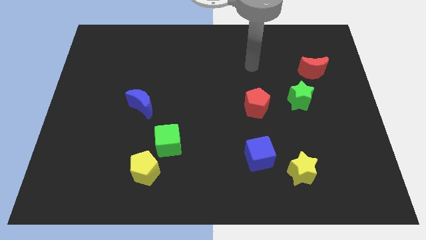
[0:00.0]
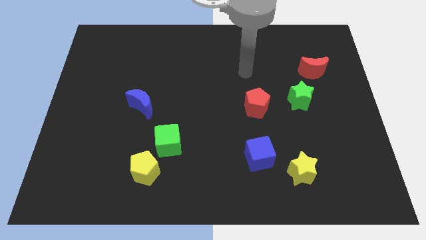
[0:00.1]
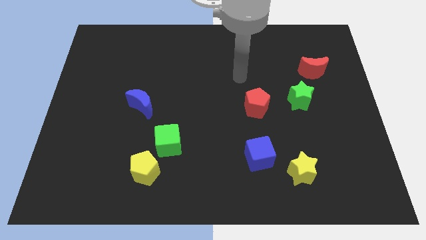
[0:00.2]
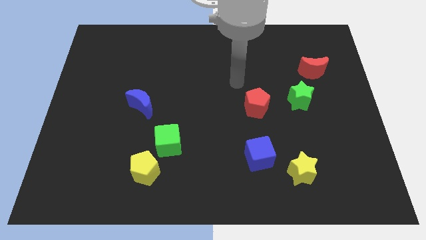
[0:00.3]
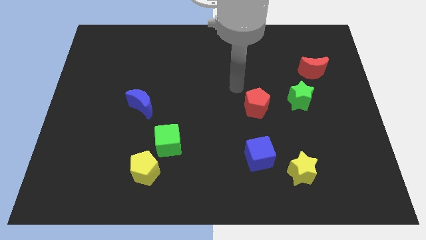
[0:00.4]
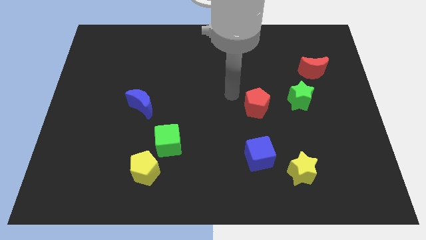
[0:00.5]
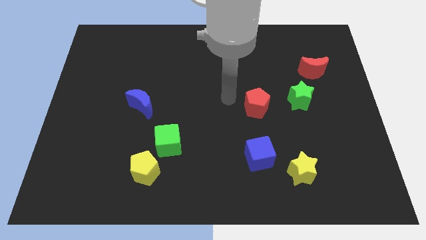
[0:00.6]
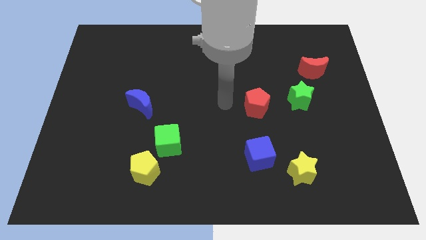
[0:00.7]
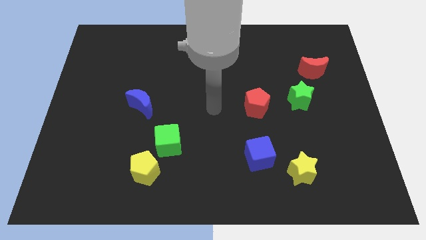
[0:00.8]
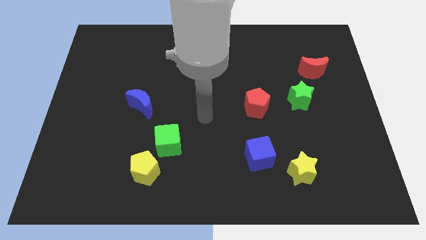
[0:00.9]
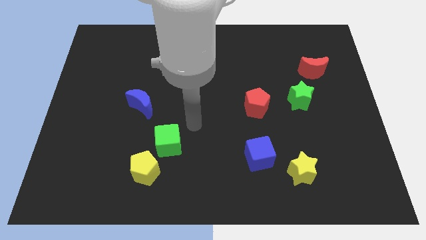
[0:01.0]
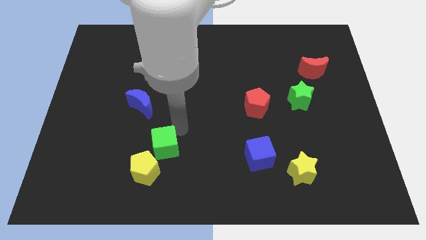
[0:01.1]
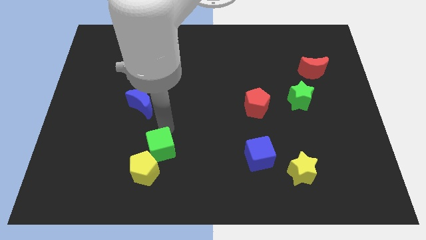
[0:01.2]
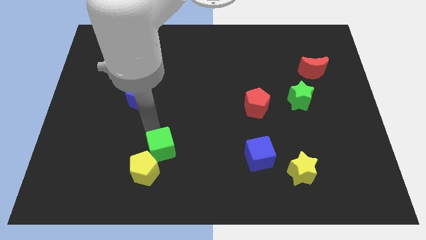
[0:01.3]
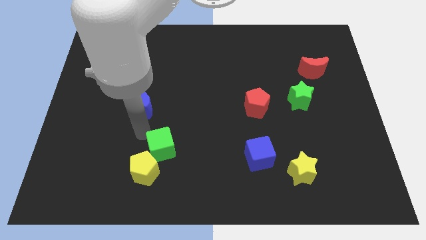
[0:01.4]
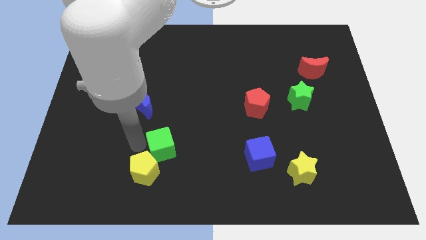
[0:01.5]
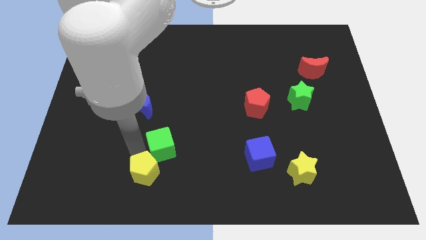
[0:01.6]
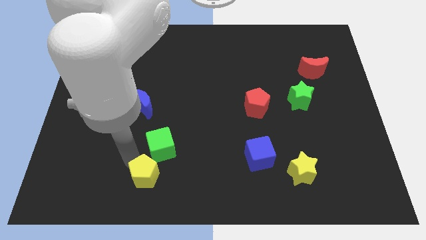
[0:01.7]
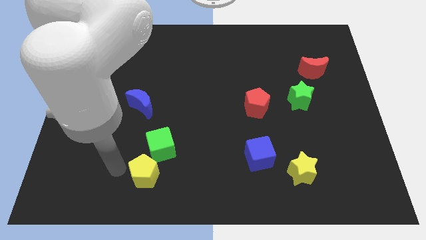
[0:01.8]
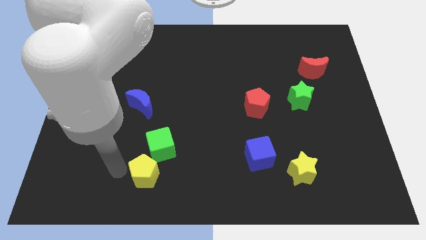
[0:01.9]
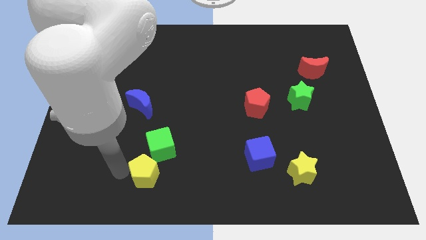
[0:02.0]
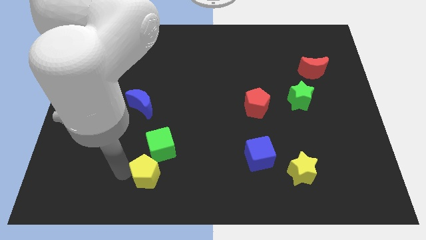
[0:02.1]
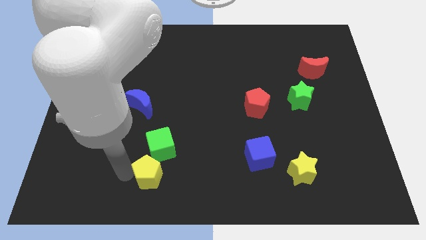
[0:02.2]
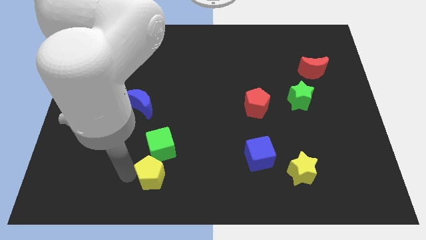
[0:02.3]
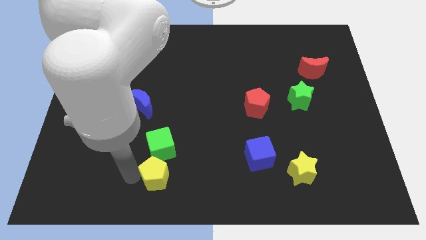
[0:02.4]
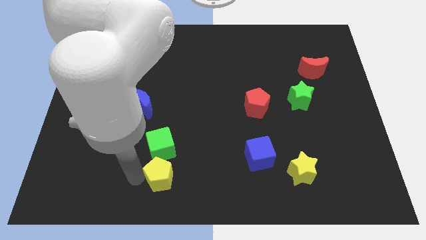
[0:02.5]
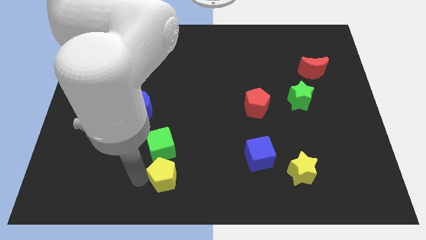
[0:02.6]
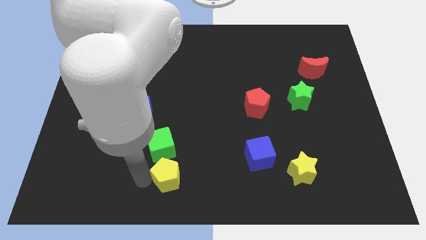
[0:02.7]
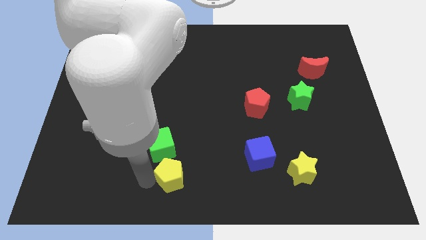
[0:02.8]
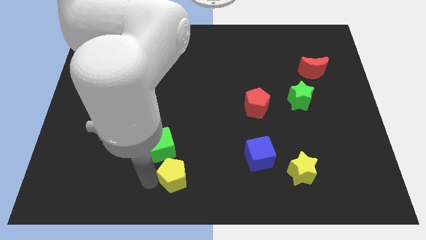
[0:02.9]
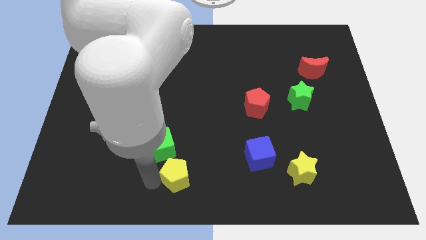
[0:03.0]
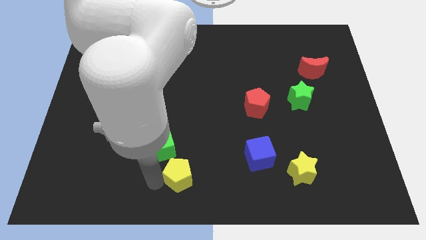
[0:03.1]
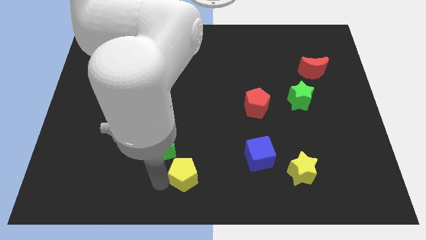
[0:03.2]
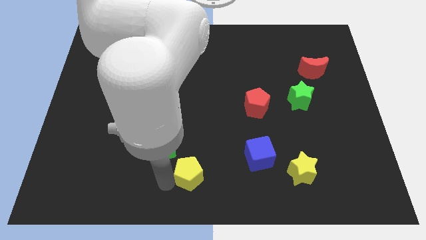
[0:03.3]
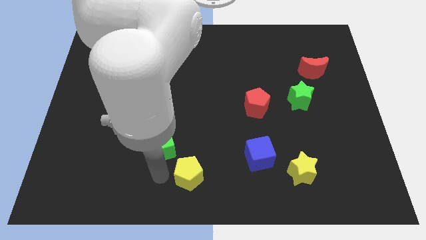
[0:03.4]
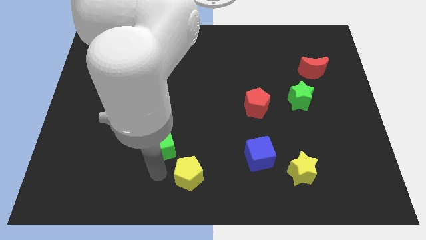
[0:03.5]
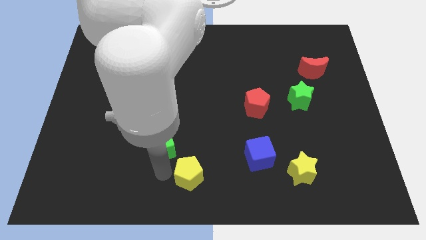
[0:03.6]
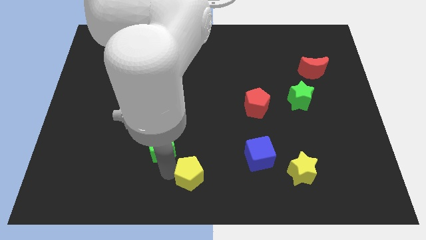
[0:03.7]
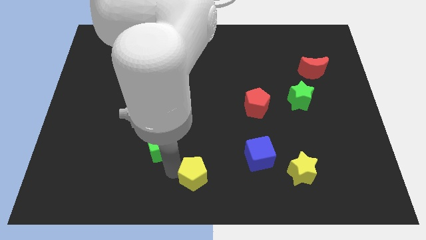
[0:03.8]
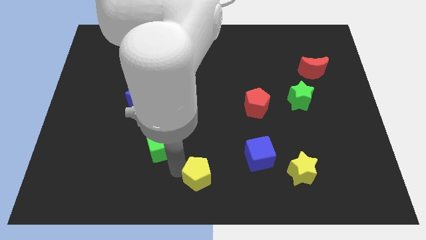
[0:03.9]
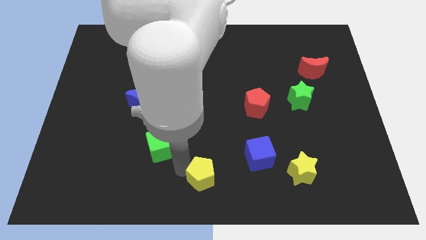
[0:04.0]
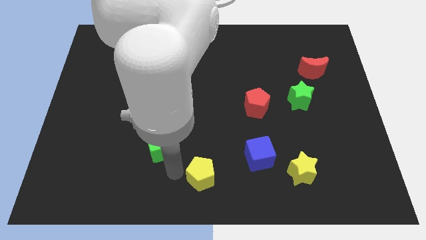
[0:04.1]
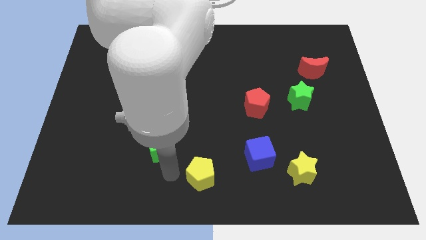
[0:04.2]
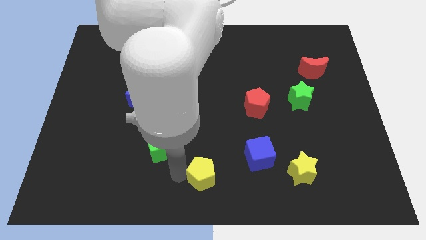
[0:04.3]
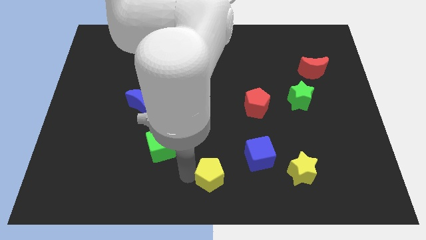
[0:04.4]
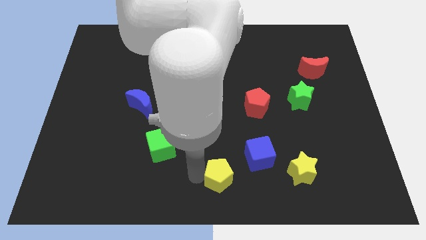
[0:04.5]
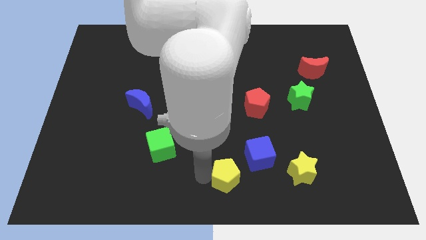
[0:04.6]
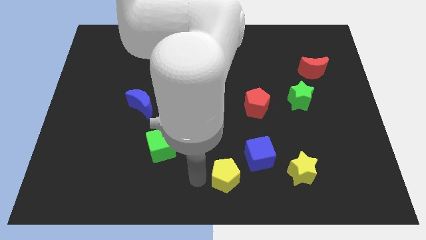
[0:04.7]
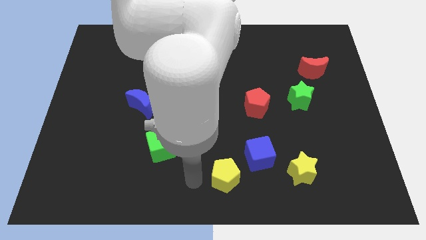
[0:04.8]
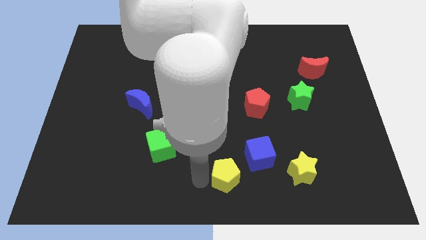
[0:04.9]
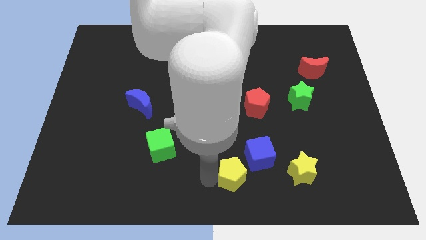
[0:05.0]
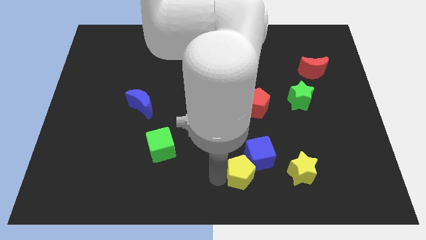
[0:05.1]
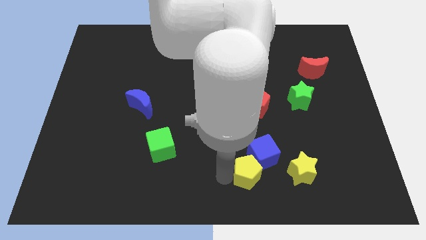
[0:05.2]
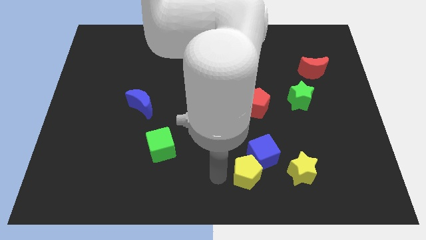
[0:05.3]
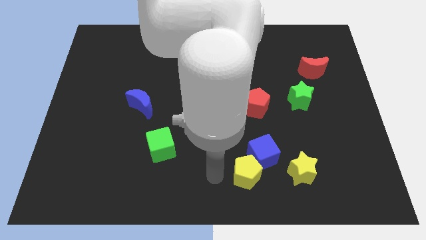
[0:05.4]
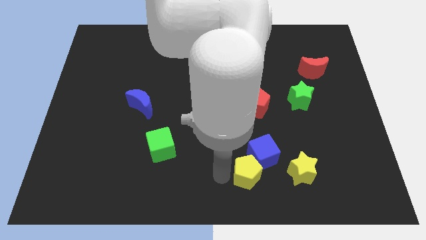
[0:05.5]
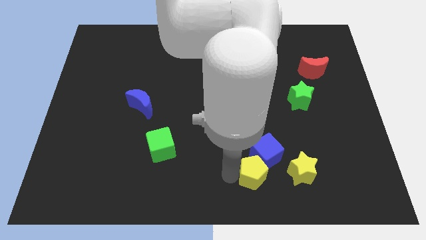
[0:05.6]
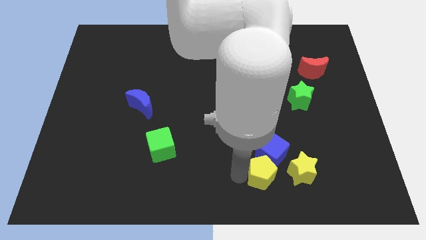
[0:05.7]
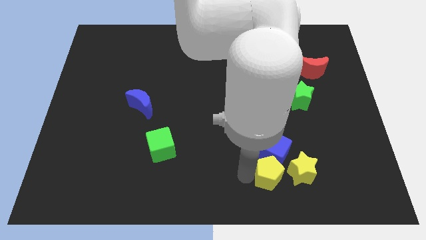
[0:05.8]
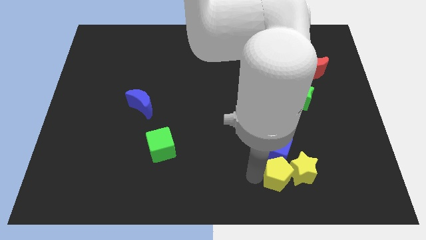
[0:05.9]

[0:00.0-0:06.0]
move the yellow pentagon next to the yellow star
